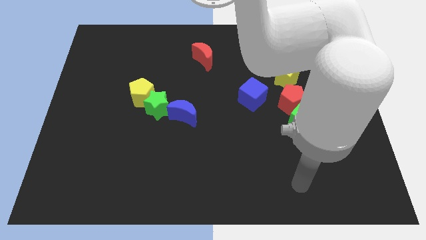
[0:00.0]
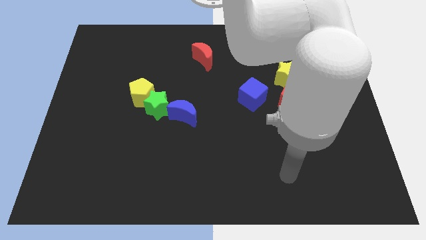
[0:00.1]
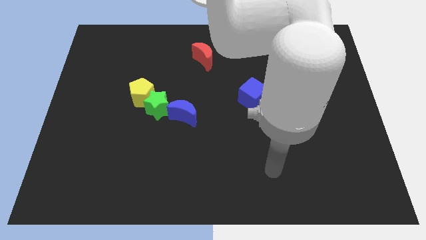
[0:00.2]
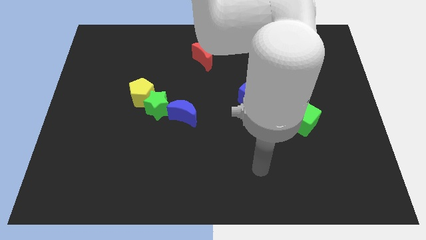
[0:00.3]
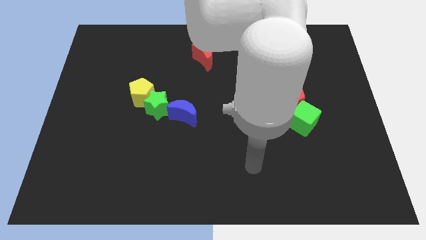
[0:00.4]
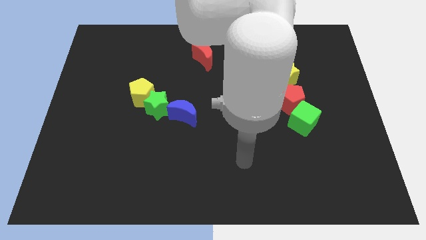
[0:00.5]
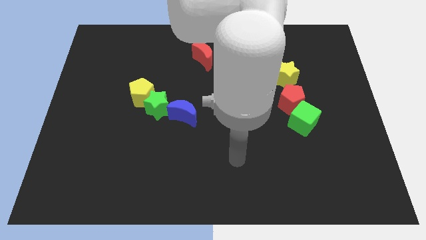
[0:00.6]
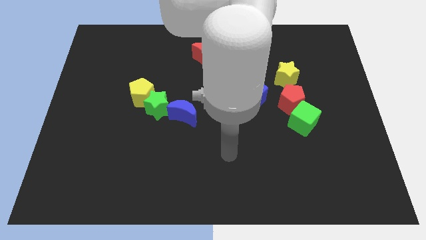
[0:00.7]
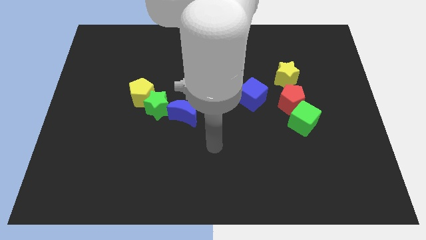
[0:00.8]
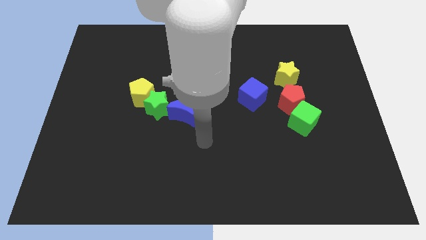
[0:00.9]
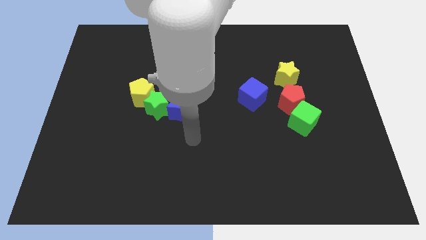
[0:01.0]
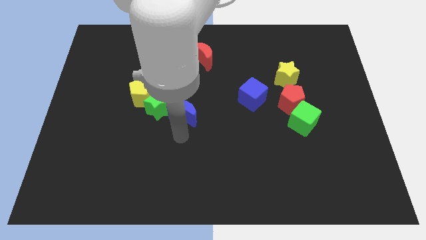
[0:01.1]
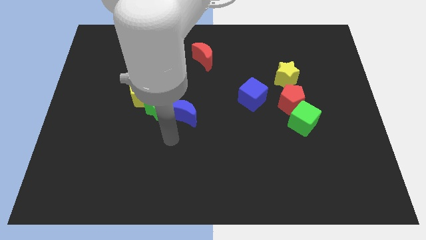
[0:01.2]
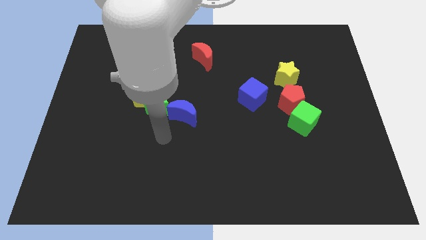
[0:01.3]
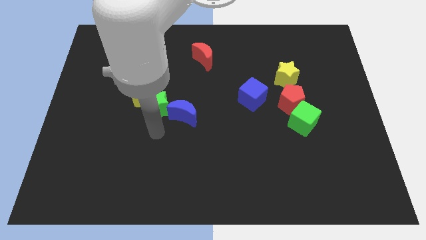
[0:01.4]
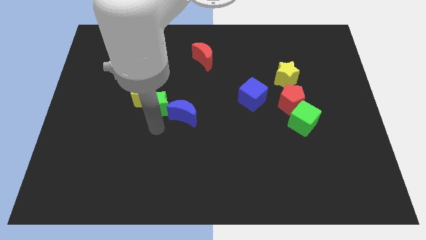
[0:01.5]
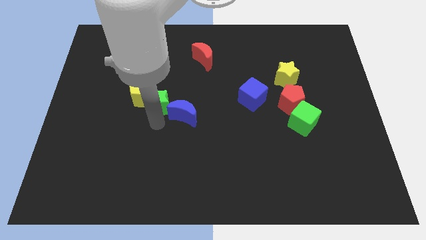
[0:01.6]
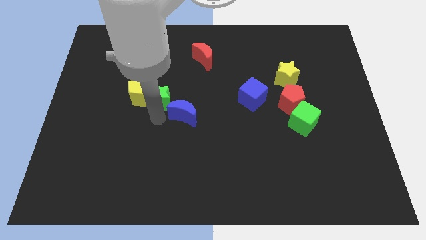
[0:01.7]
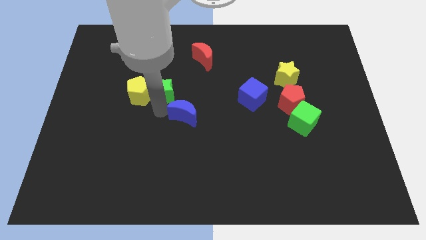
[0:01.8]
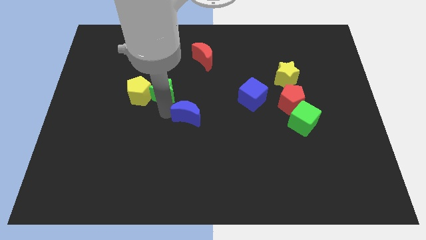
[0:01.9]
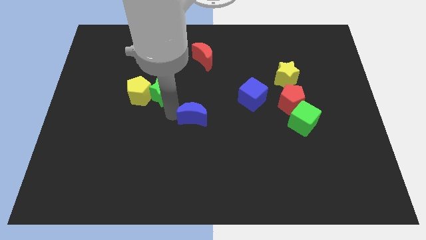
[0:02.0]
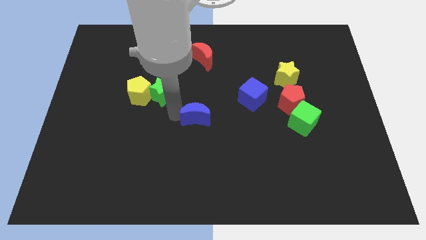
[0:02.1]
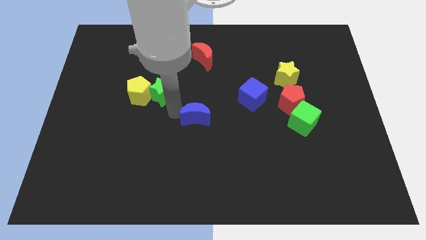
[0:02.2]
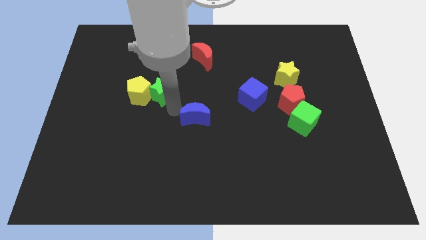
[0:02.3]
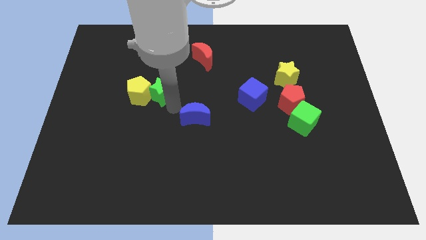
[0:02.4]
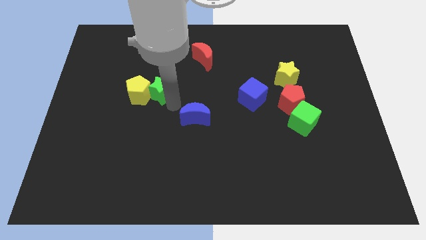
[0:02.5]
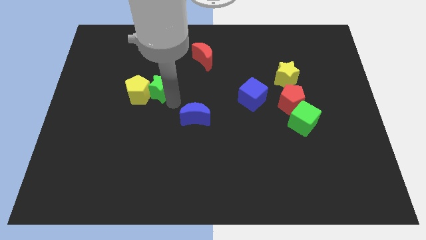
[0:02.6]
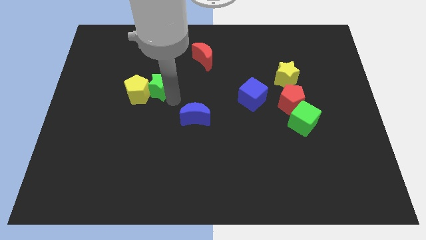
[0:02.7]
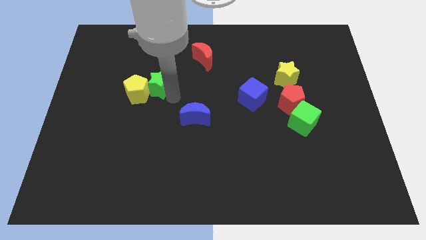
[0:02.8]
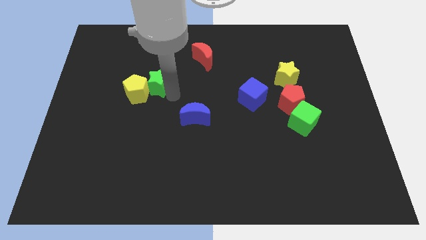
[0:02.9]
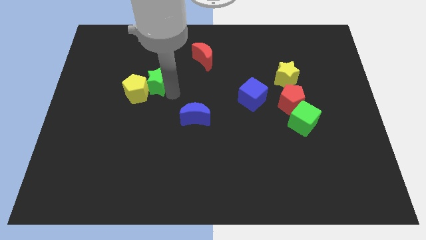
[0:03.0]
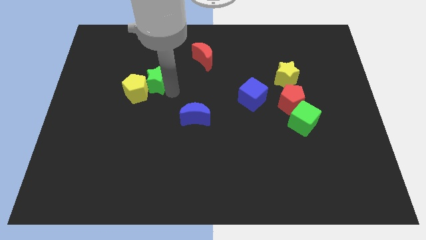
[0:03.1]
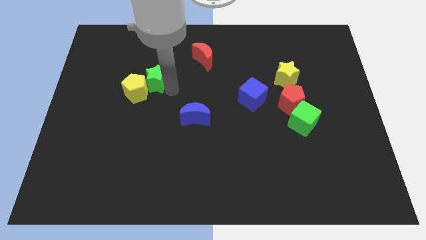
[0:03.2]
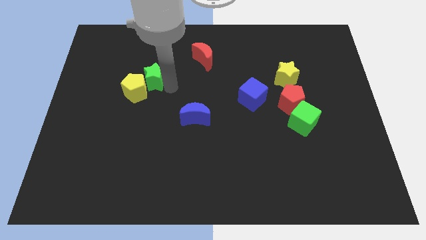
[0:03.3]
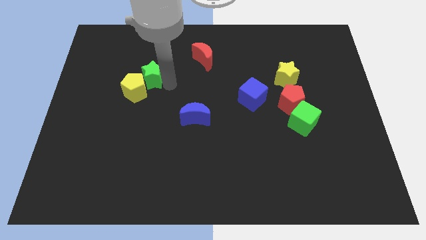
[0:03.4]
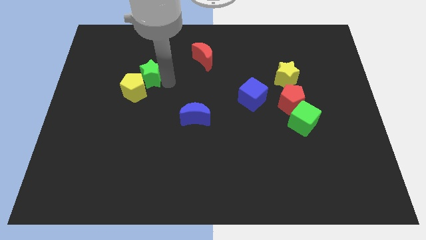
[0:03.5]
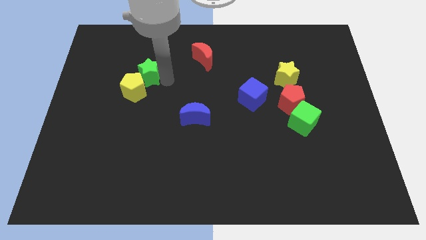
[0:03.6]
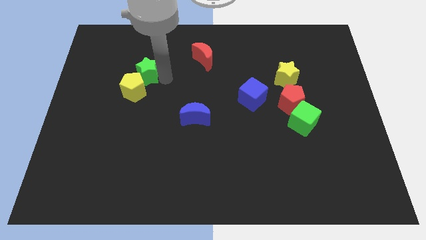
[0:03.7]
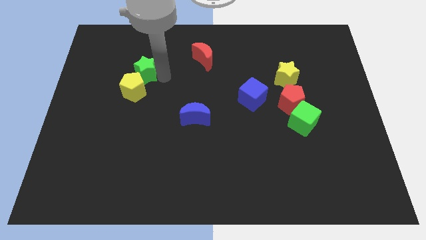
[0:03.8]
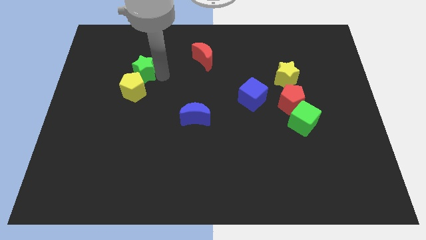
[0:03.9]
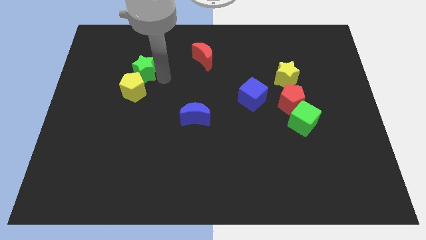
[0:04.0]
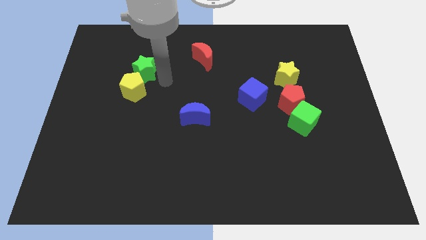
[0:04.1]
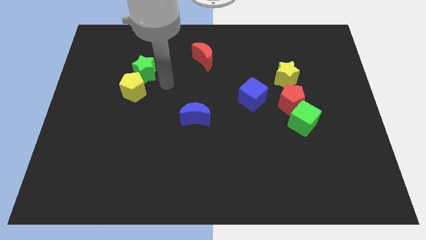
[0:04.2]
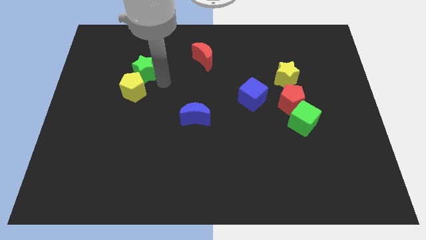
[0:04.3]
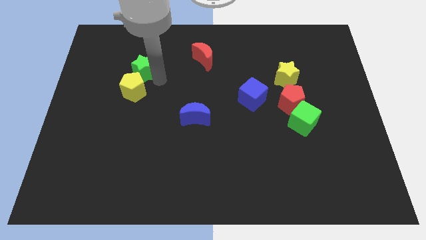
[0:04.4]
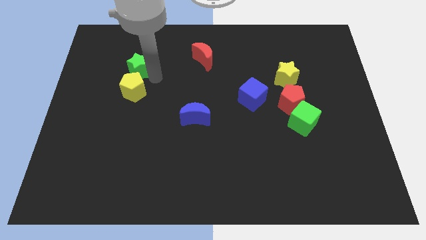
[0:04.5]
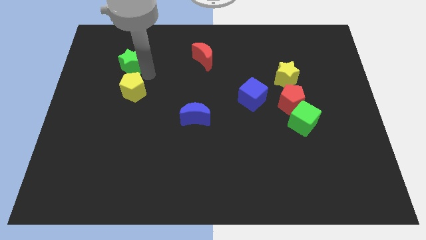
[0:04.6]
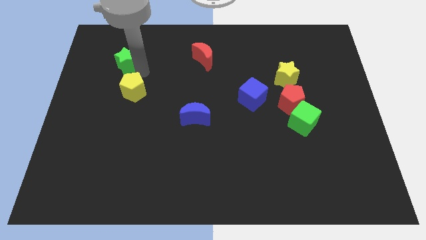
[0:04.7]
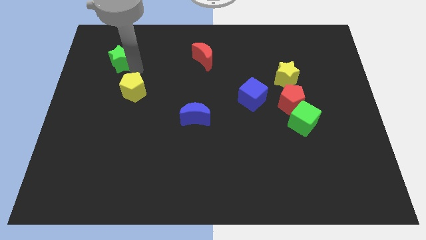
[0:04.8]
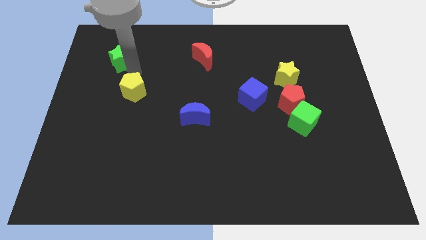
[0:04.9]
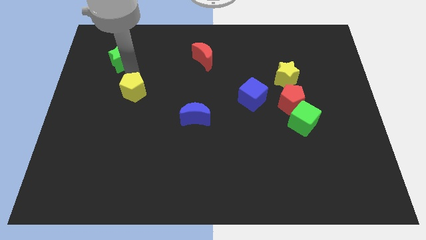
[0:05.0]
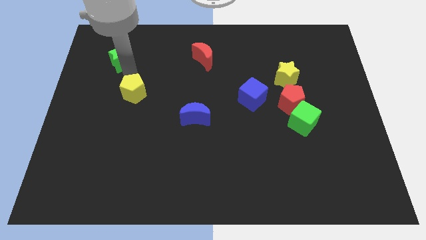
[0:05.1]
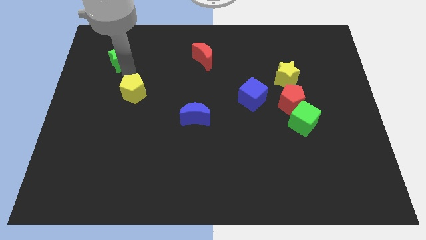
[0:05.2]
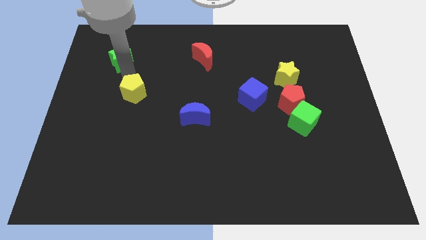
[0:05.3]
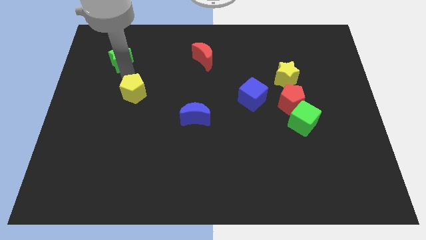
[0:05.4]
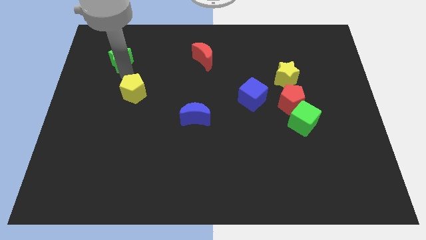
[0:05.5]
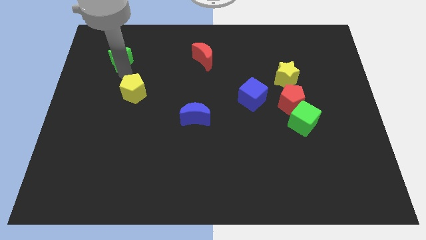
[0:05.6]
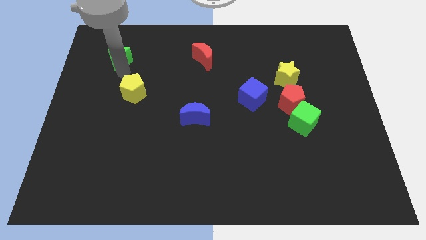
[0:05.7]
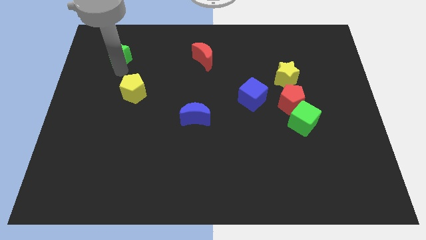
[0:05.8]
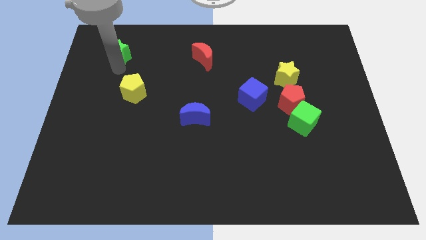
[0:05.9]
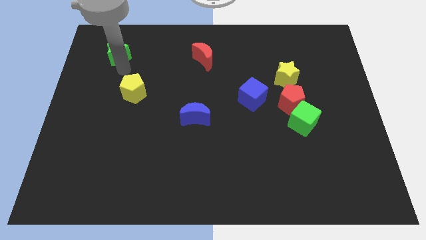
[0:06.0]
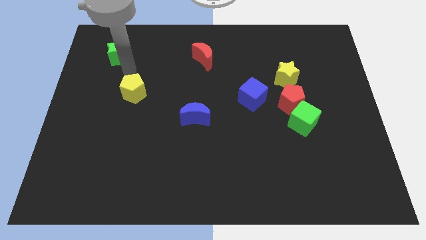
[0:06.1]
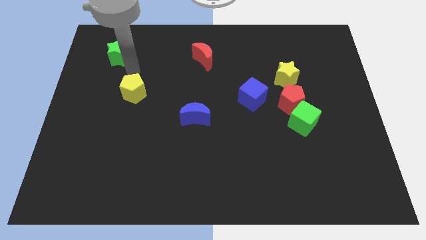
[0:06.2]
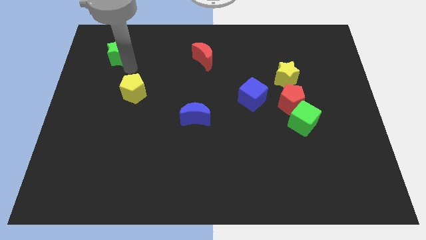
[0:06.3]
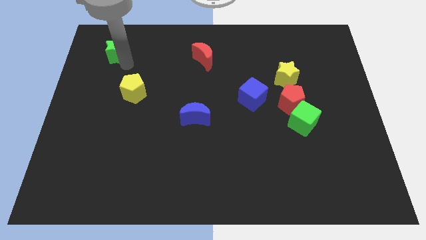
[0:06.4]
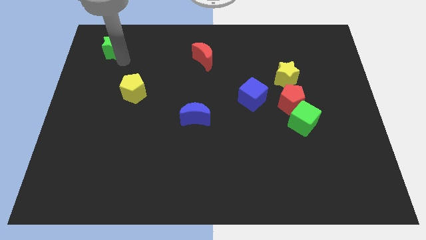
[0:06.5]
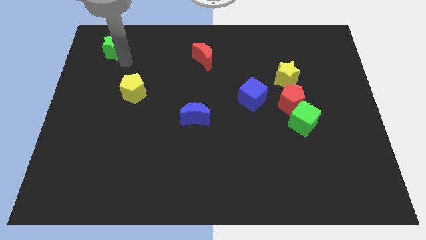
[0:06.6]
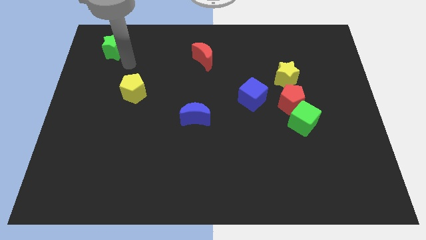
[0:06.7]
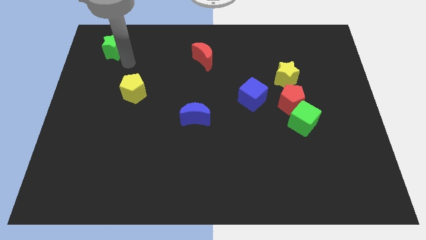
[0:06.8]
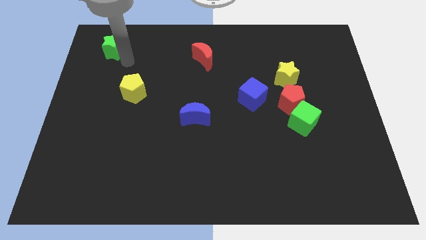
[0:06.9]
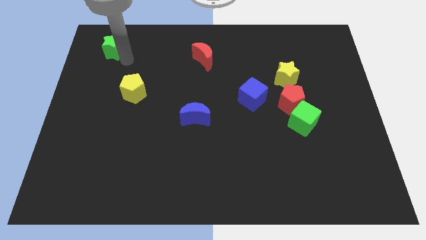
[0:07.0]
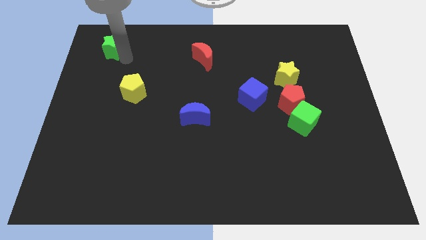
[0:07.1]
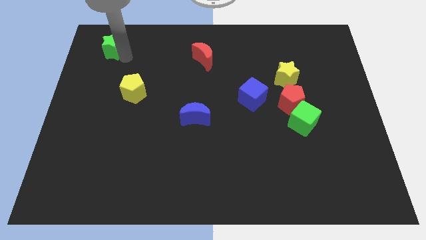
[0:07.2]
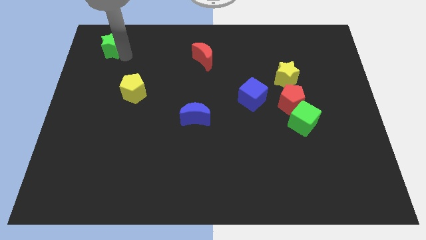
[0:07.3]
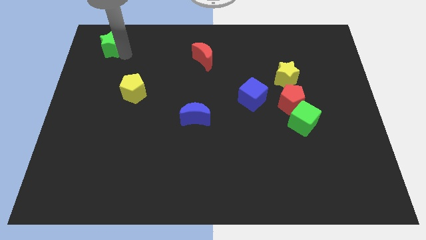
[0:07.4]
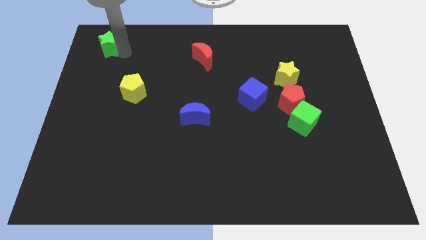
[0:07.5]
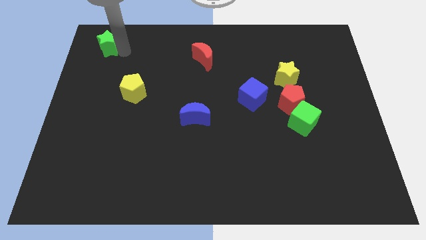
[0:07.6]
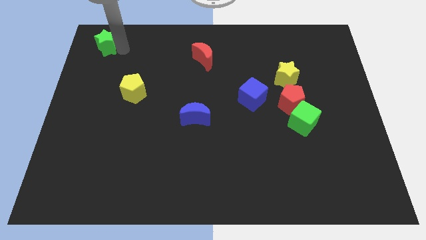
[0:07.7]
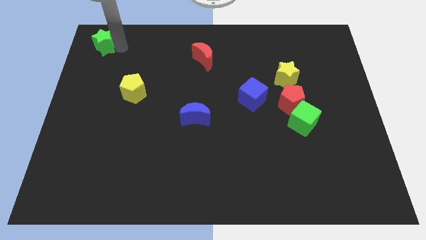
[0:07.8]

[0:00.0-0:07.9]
slide the green star to the top left corner
